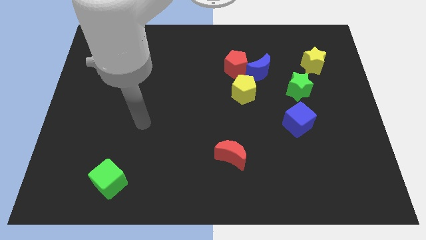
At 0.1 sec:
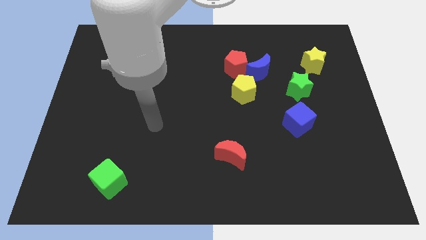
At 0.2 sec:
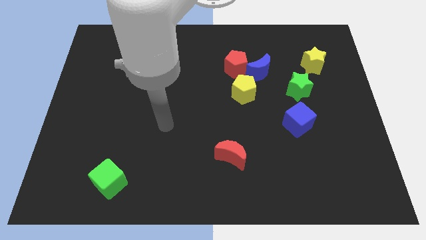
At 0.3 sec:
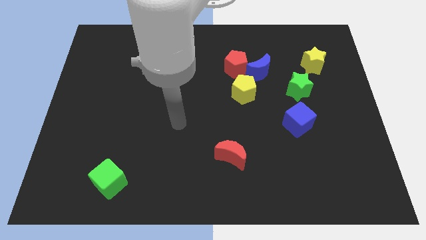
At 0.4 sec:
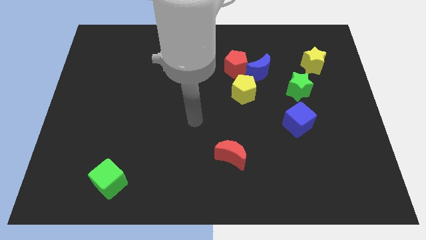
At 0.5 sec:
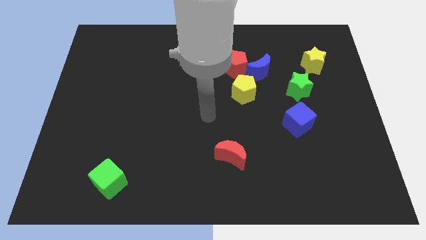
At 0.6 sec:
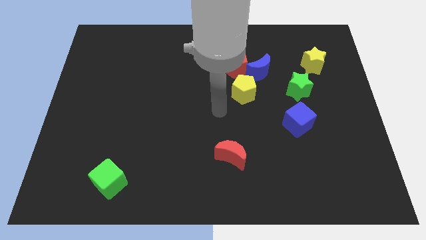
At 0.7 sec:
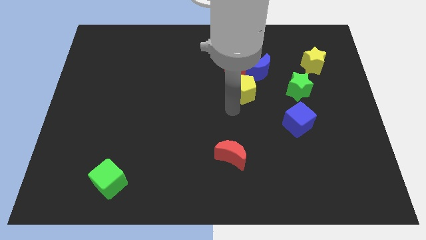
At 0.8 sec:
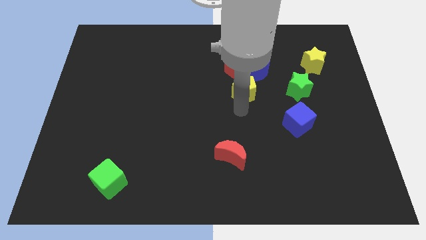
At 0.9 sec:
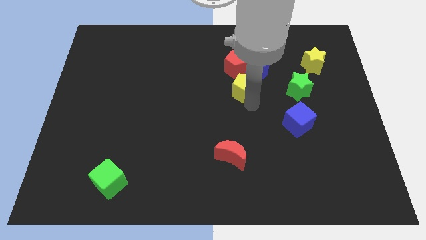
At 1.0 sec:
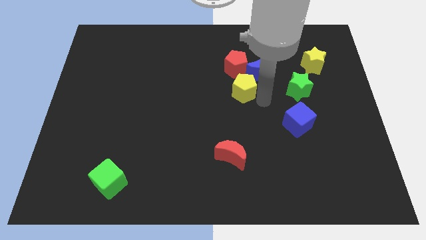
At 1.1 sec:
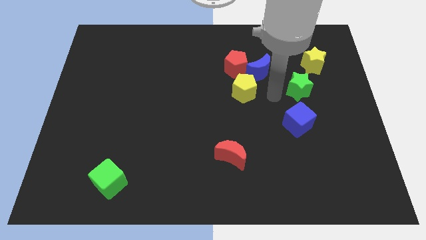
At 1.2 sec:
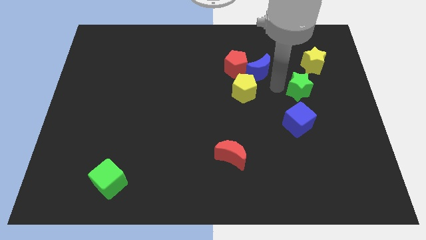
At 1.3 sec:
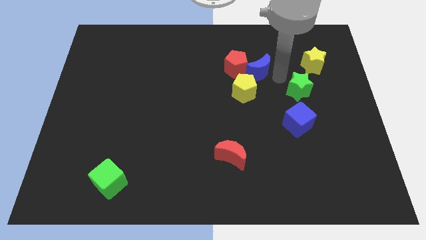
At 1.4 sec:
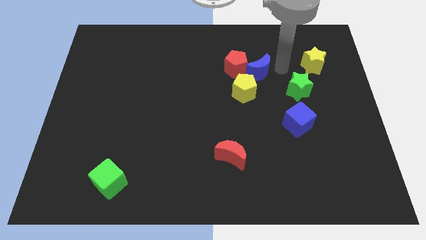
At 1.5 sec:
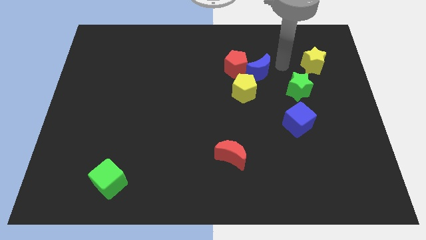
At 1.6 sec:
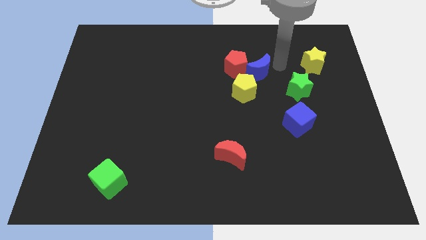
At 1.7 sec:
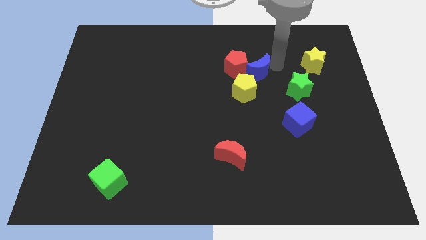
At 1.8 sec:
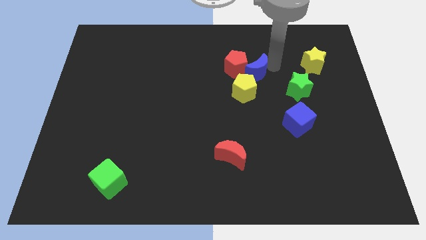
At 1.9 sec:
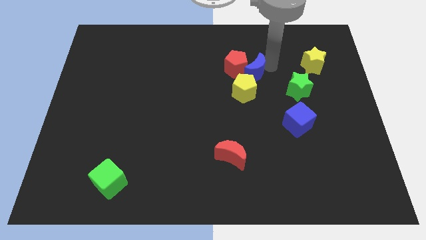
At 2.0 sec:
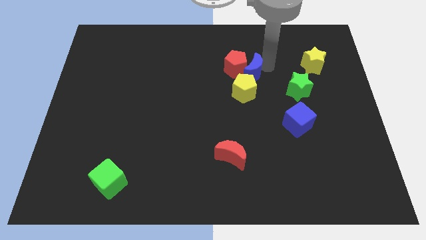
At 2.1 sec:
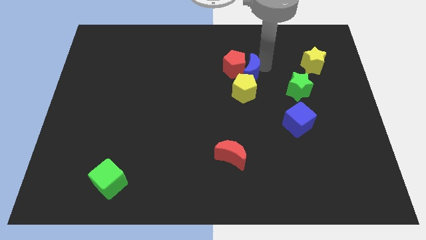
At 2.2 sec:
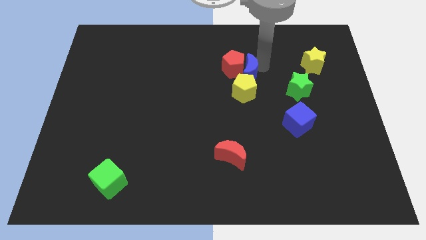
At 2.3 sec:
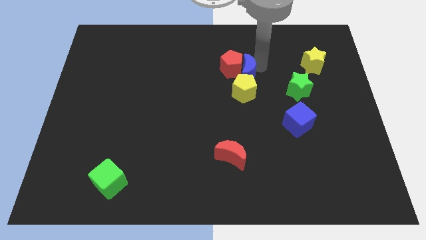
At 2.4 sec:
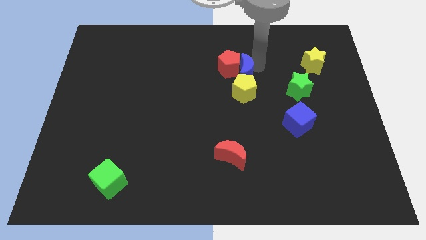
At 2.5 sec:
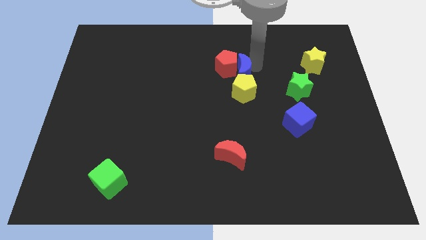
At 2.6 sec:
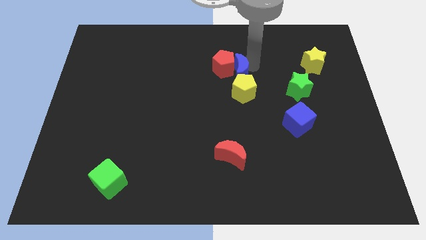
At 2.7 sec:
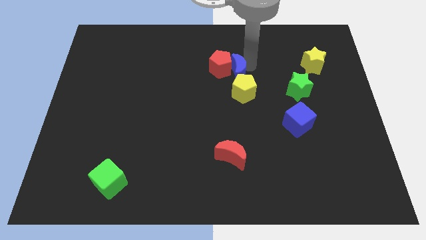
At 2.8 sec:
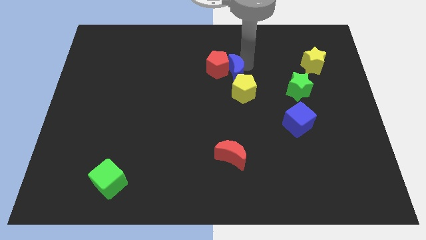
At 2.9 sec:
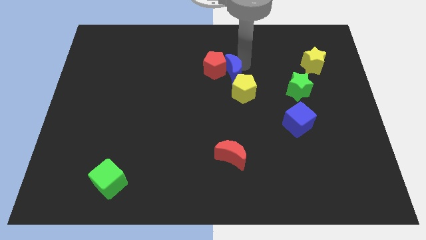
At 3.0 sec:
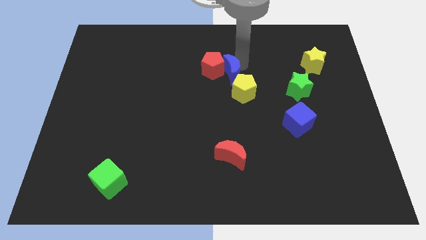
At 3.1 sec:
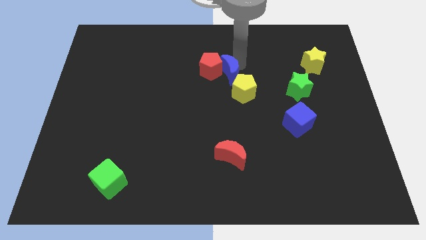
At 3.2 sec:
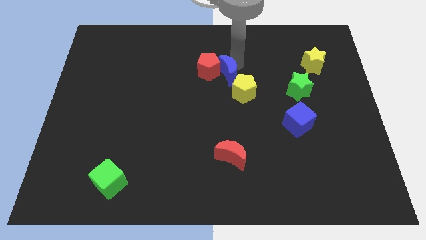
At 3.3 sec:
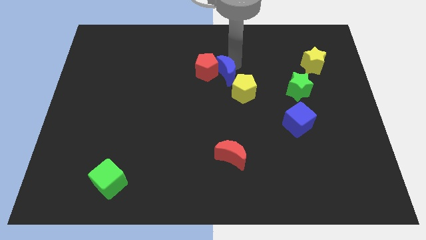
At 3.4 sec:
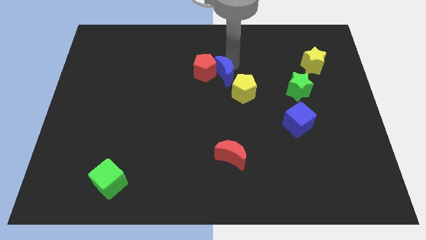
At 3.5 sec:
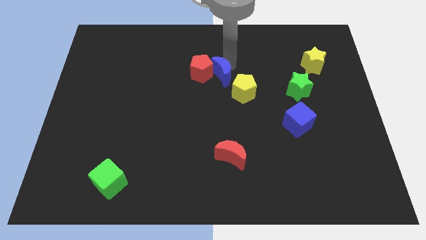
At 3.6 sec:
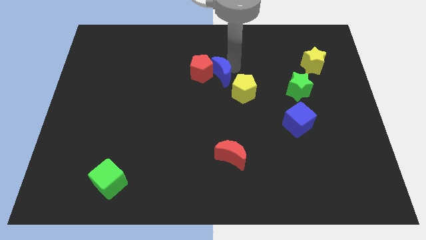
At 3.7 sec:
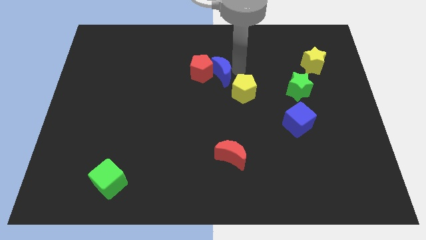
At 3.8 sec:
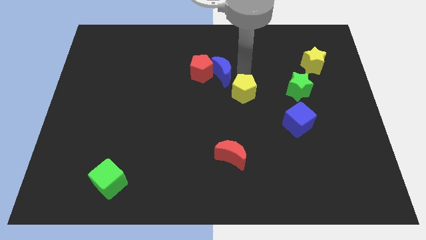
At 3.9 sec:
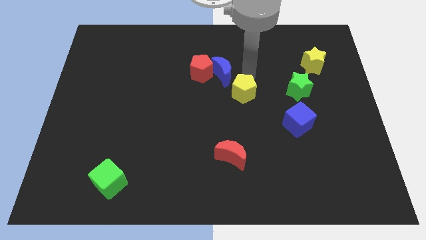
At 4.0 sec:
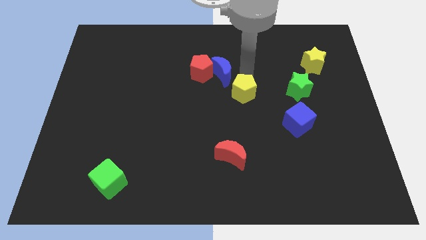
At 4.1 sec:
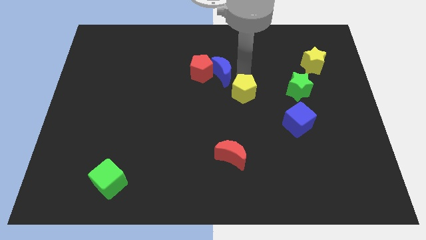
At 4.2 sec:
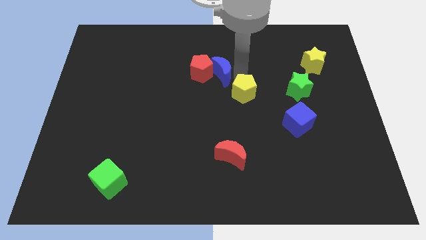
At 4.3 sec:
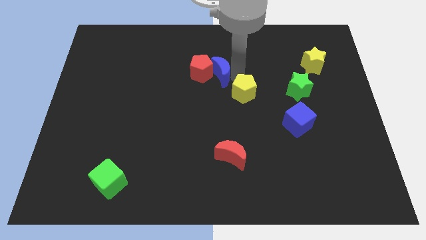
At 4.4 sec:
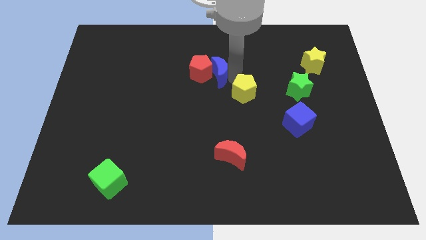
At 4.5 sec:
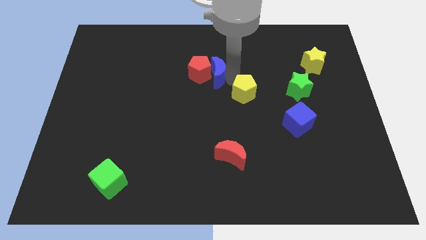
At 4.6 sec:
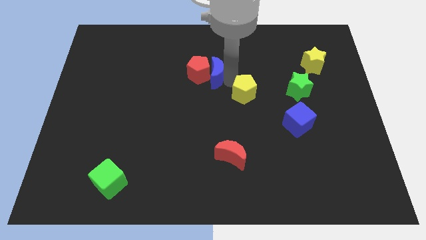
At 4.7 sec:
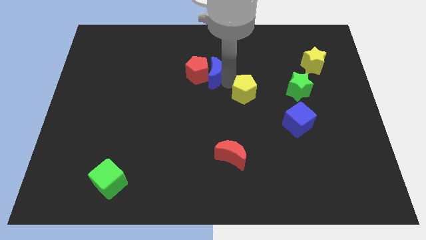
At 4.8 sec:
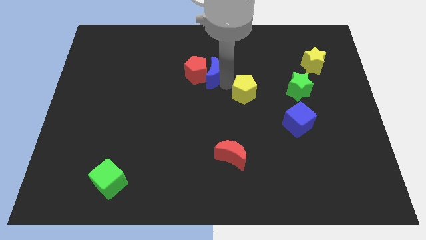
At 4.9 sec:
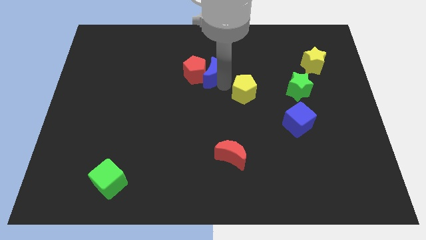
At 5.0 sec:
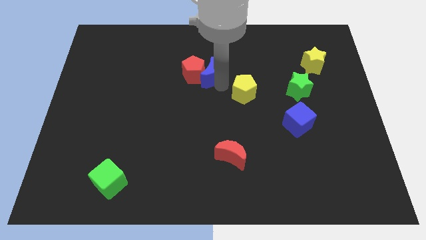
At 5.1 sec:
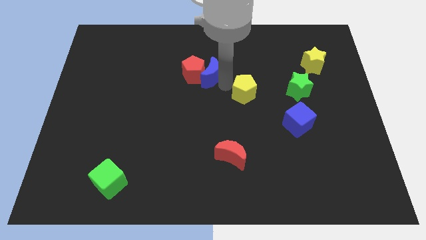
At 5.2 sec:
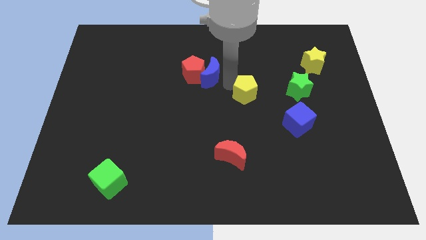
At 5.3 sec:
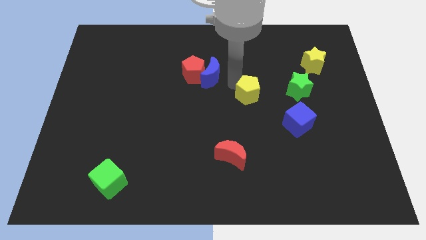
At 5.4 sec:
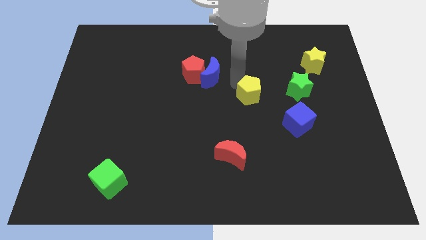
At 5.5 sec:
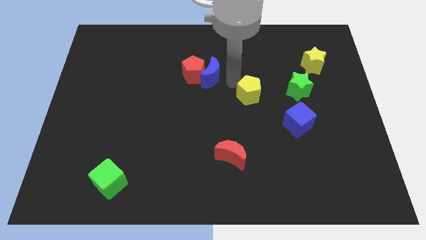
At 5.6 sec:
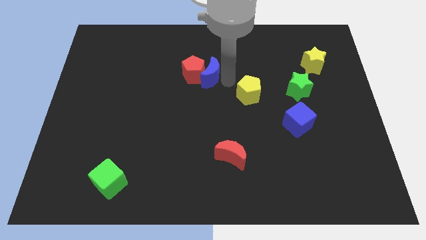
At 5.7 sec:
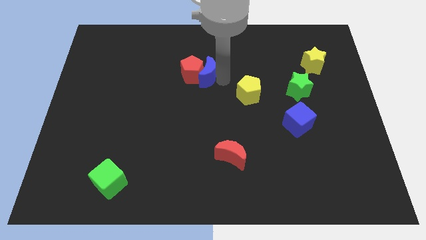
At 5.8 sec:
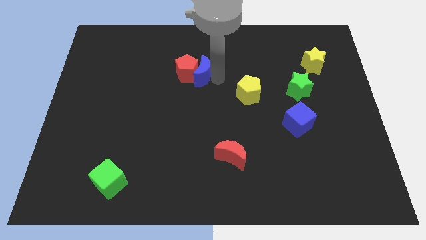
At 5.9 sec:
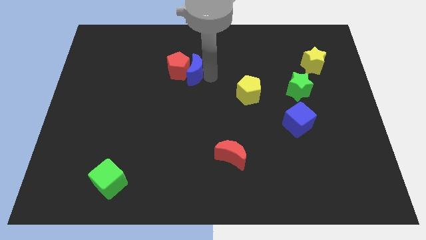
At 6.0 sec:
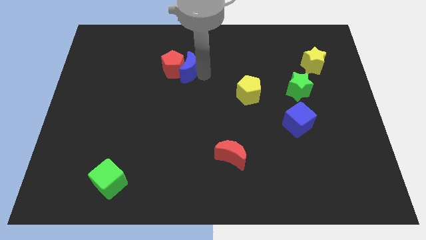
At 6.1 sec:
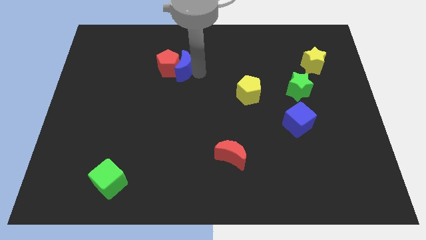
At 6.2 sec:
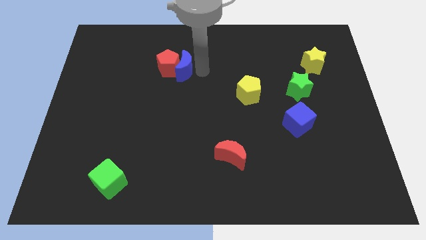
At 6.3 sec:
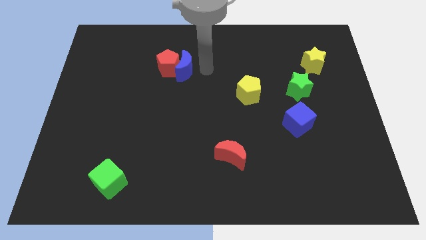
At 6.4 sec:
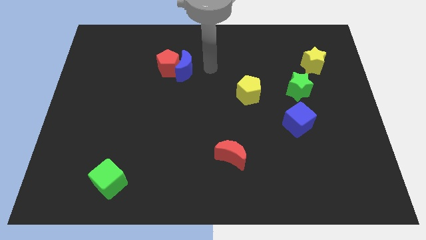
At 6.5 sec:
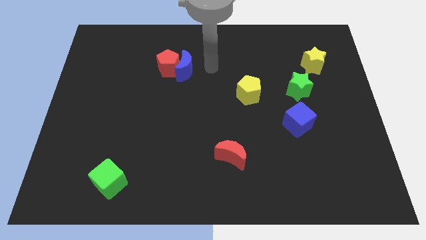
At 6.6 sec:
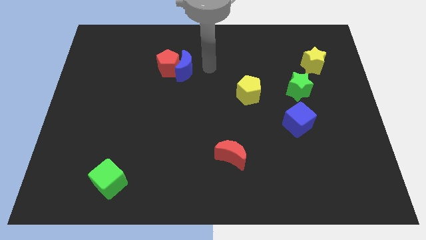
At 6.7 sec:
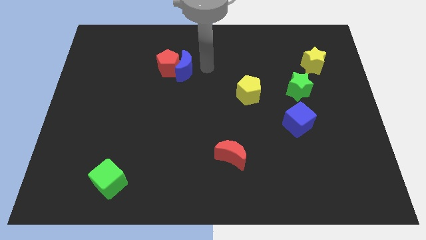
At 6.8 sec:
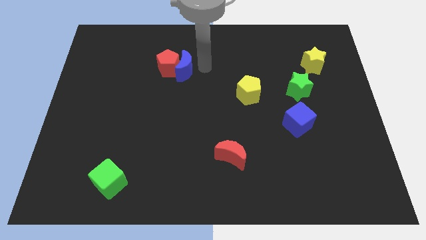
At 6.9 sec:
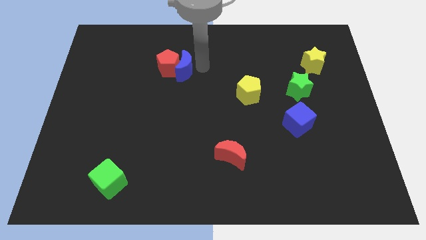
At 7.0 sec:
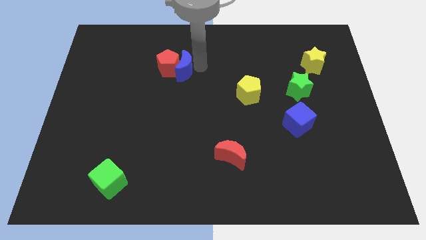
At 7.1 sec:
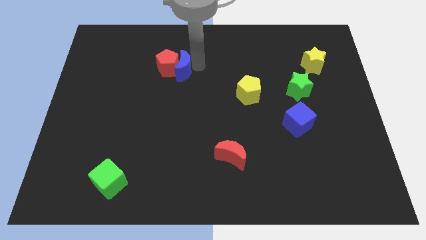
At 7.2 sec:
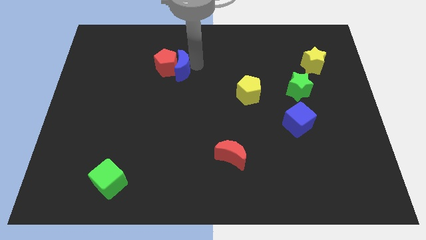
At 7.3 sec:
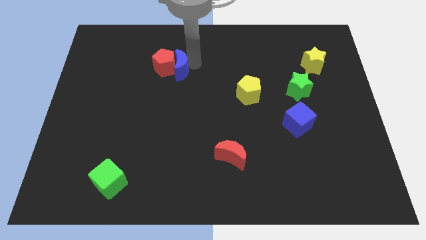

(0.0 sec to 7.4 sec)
slide the blue moon to the left

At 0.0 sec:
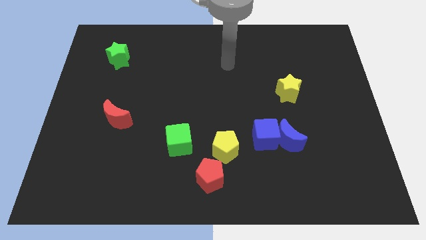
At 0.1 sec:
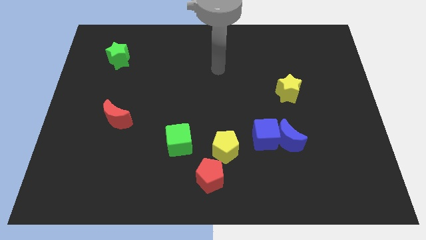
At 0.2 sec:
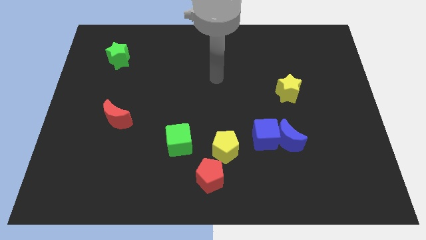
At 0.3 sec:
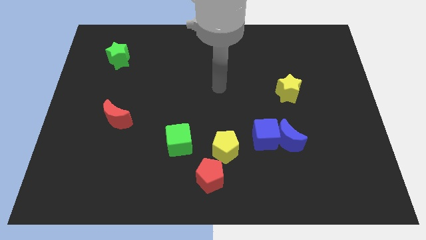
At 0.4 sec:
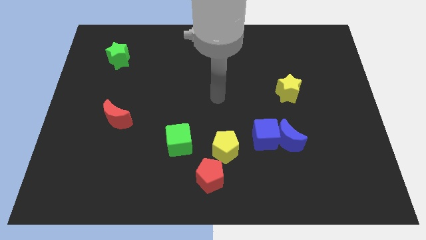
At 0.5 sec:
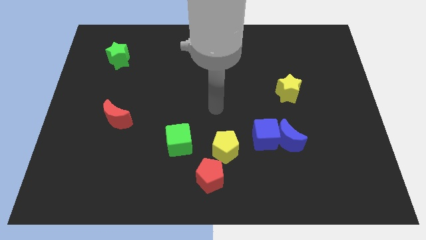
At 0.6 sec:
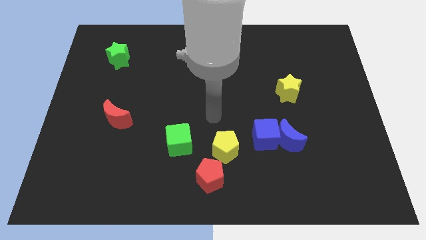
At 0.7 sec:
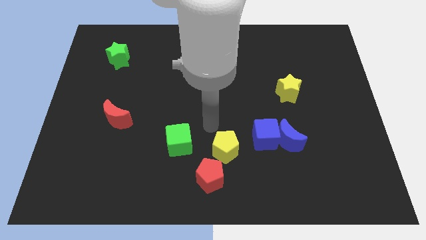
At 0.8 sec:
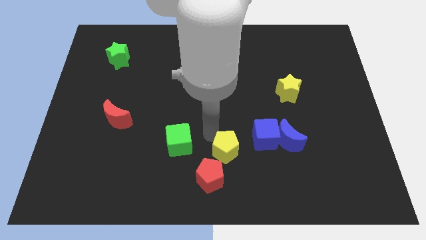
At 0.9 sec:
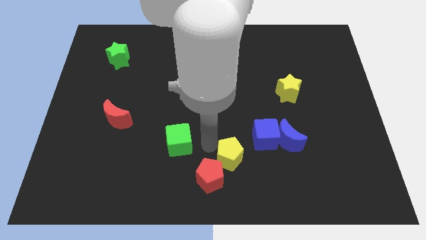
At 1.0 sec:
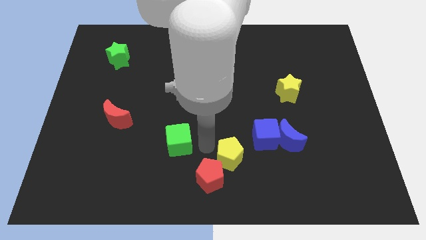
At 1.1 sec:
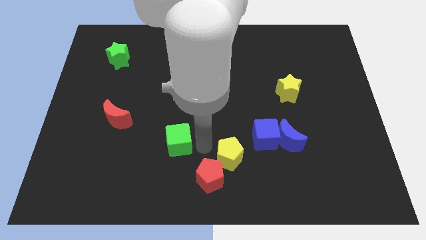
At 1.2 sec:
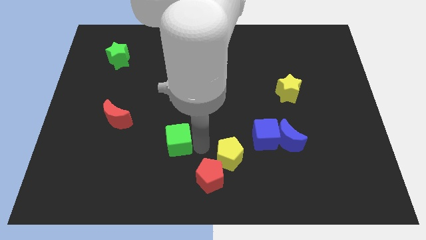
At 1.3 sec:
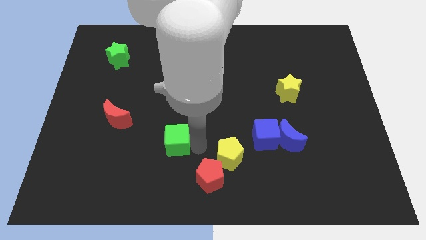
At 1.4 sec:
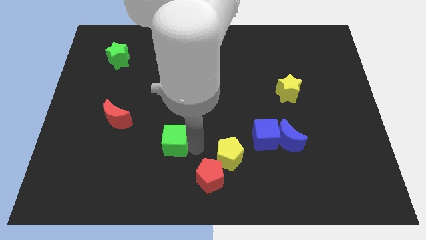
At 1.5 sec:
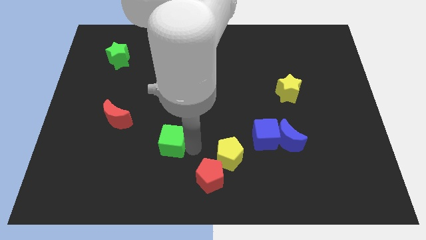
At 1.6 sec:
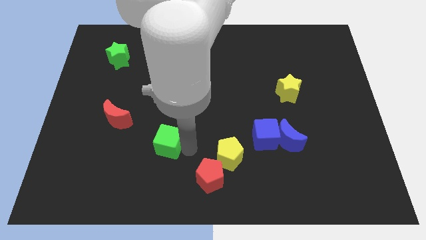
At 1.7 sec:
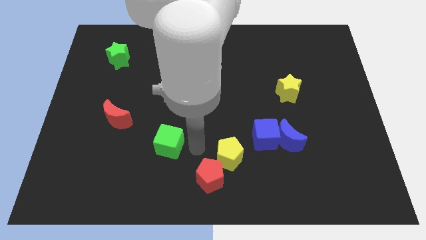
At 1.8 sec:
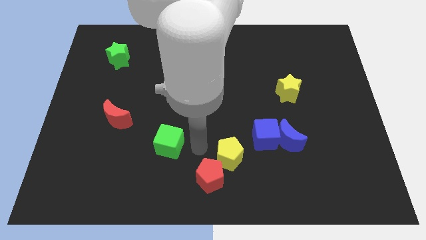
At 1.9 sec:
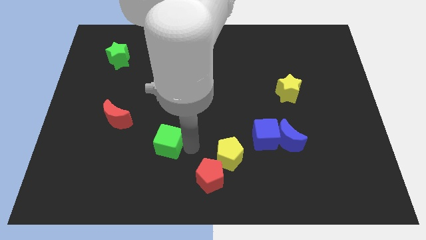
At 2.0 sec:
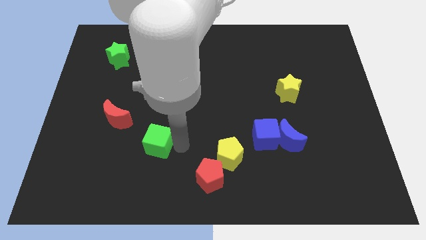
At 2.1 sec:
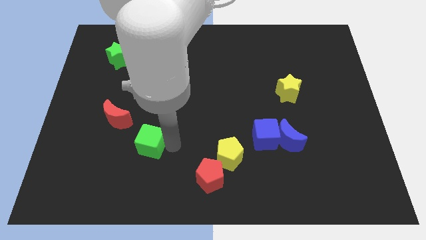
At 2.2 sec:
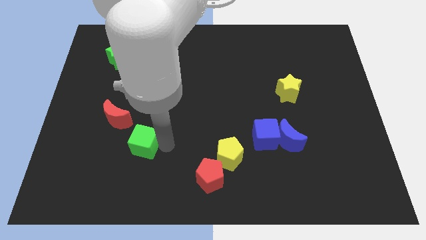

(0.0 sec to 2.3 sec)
slide the green cube left slightly
